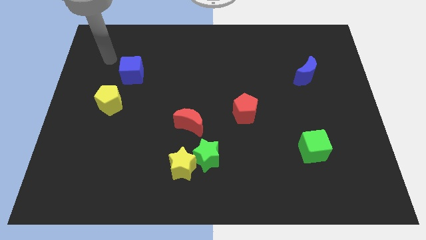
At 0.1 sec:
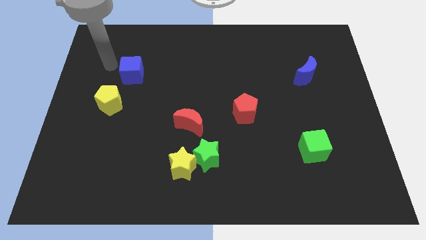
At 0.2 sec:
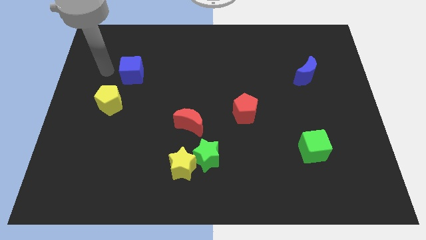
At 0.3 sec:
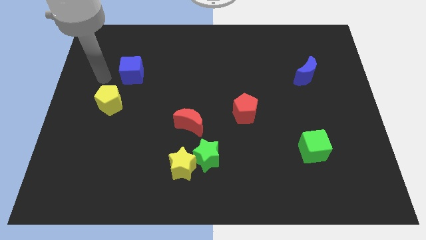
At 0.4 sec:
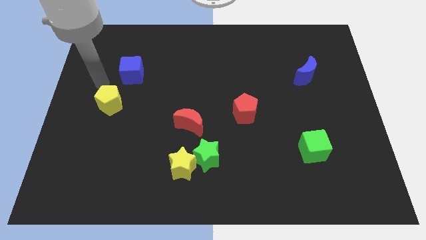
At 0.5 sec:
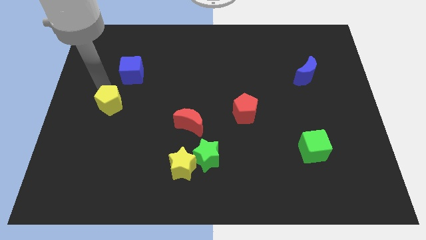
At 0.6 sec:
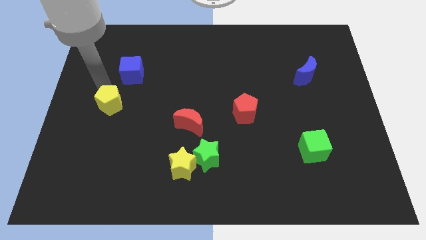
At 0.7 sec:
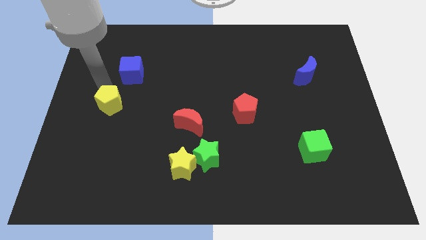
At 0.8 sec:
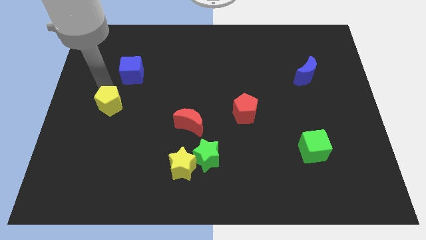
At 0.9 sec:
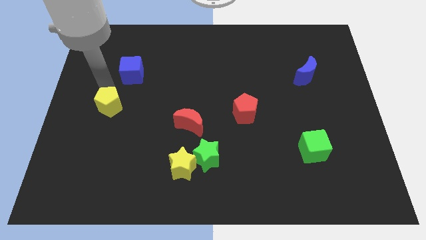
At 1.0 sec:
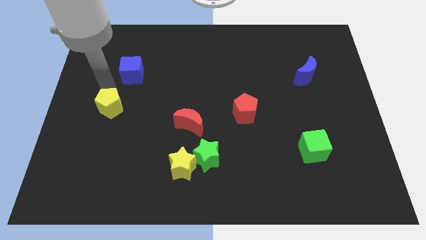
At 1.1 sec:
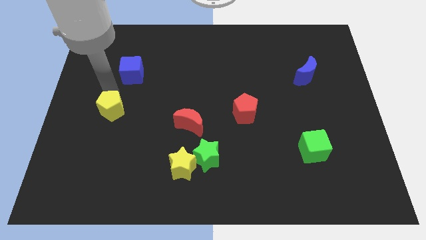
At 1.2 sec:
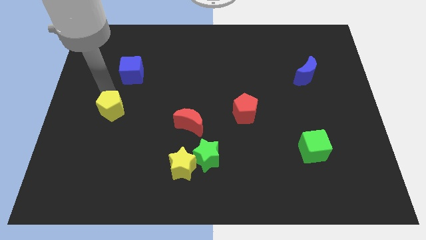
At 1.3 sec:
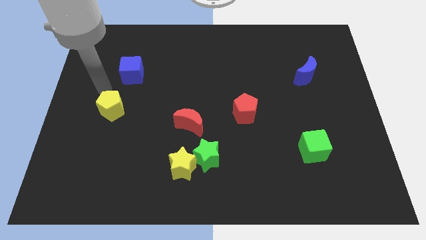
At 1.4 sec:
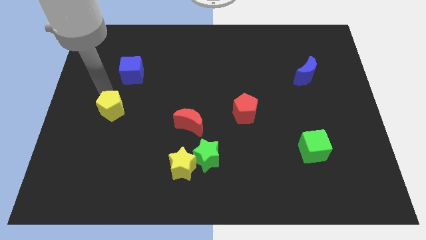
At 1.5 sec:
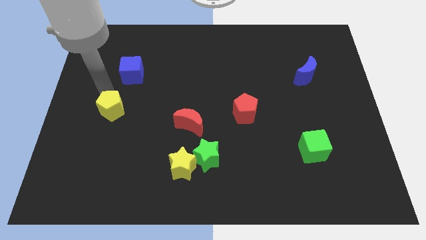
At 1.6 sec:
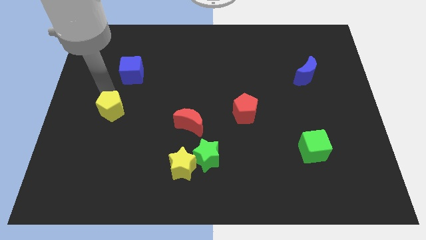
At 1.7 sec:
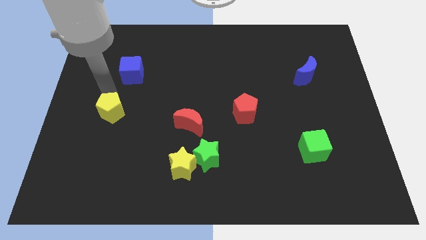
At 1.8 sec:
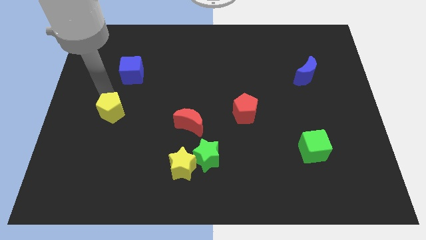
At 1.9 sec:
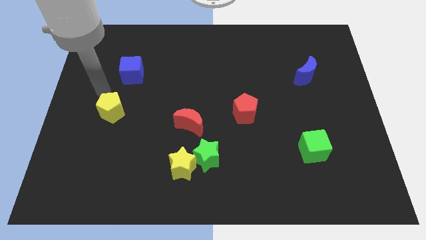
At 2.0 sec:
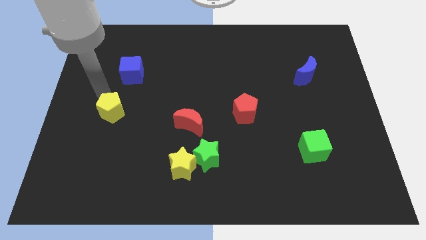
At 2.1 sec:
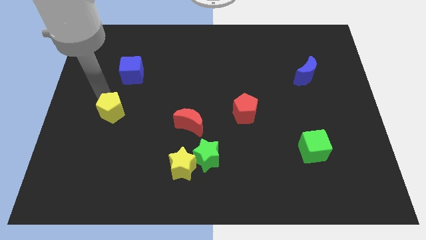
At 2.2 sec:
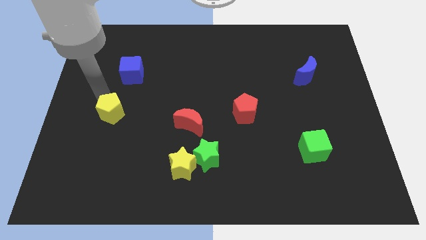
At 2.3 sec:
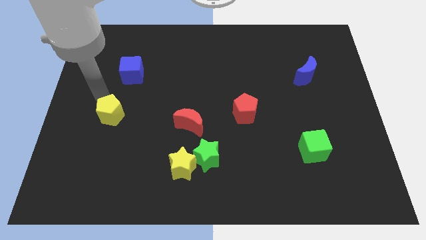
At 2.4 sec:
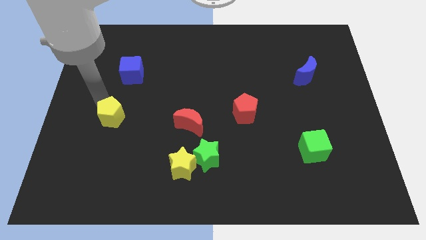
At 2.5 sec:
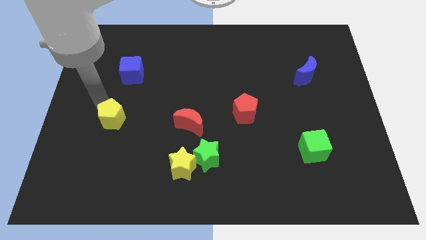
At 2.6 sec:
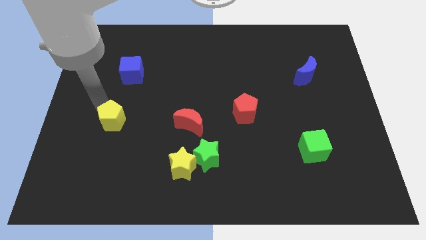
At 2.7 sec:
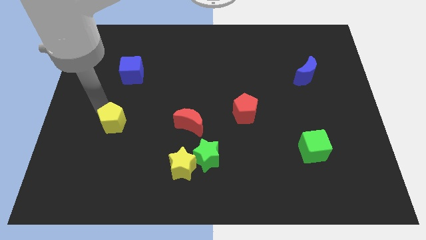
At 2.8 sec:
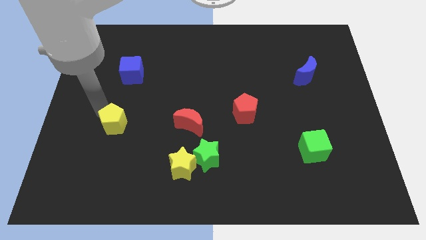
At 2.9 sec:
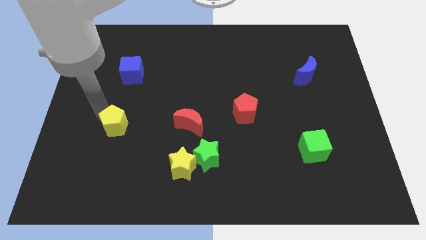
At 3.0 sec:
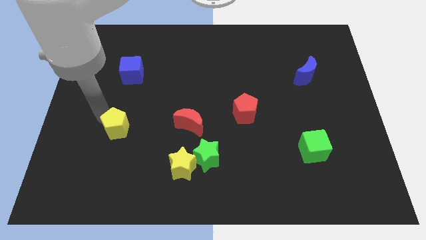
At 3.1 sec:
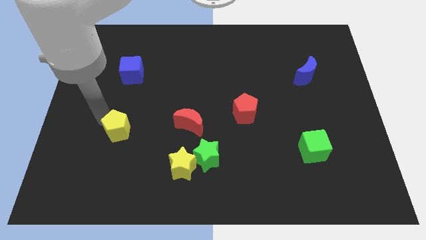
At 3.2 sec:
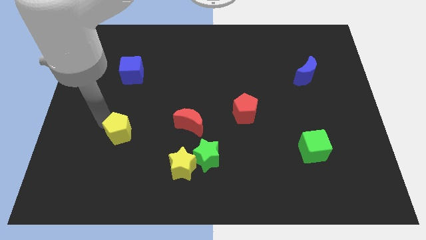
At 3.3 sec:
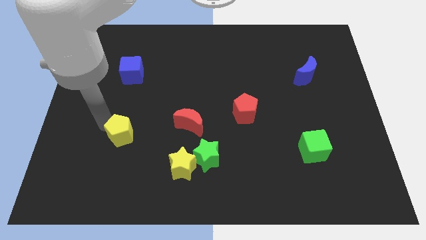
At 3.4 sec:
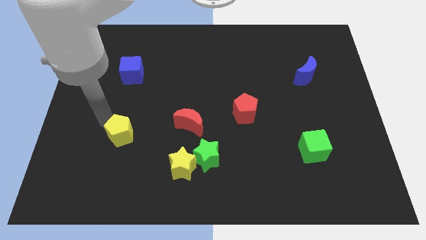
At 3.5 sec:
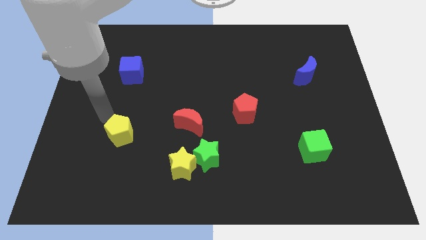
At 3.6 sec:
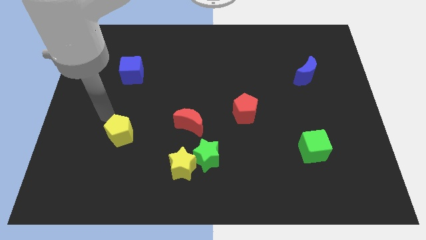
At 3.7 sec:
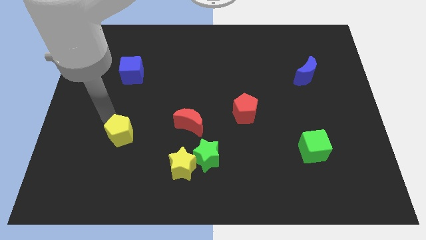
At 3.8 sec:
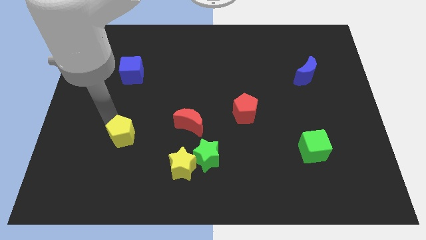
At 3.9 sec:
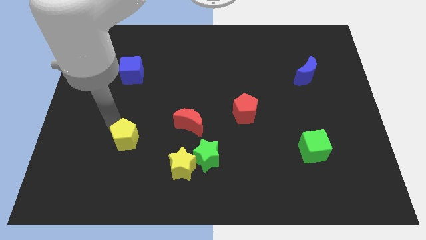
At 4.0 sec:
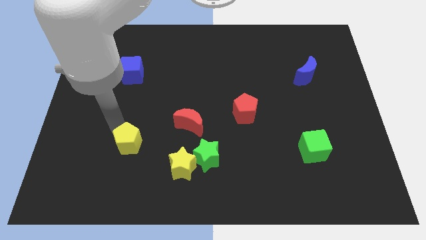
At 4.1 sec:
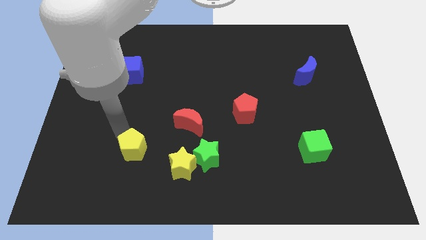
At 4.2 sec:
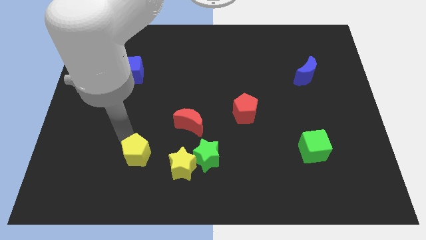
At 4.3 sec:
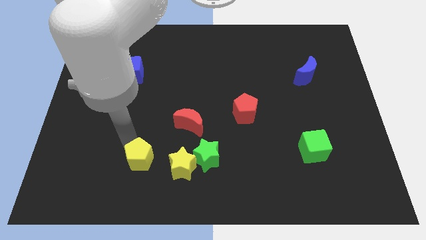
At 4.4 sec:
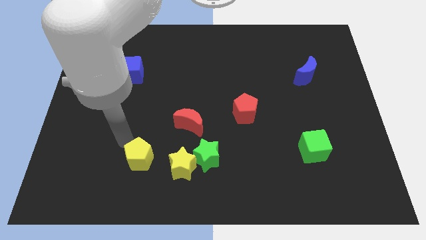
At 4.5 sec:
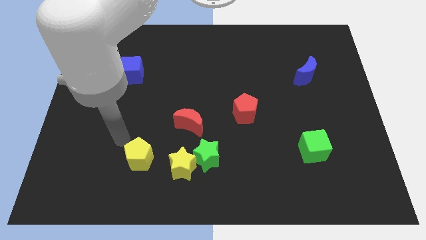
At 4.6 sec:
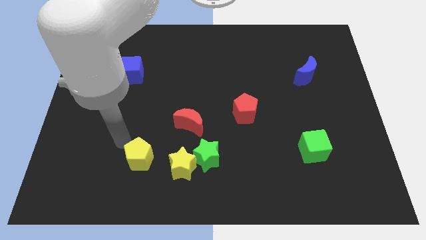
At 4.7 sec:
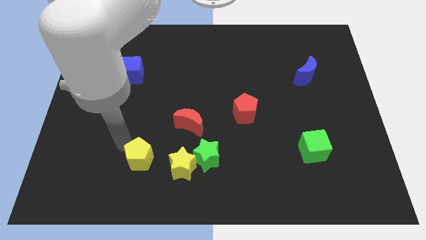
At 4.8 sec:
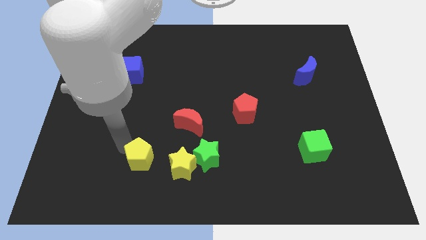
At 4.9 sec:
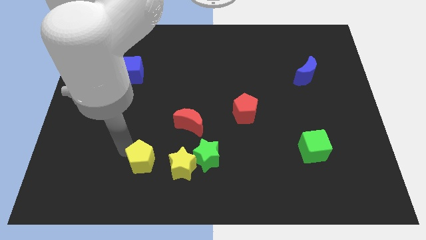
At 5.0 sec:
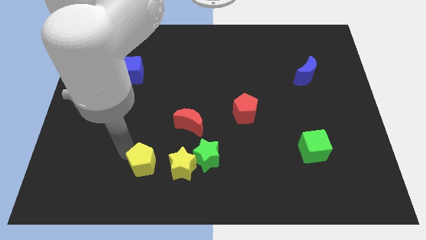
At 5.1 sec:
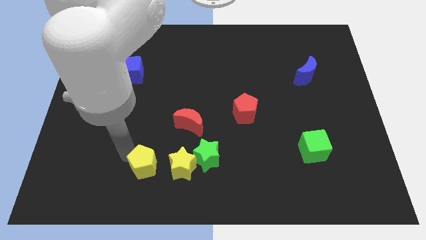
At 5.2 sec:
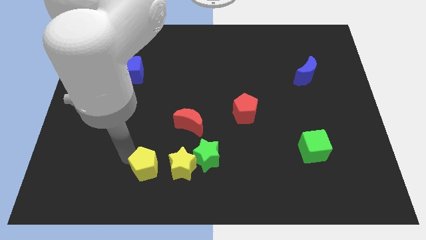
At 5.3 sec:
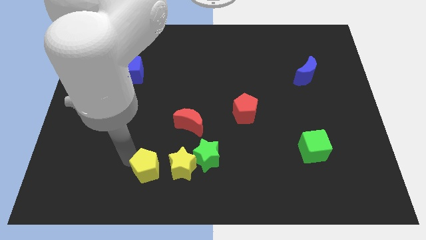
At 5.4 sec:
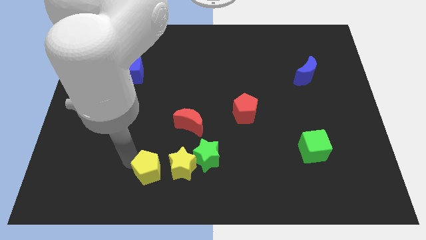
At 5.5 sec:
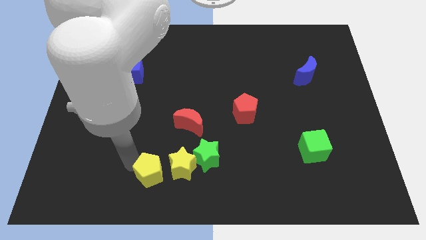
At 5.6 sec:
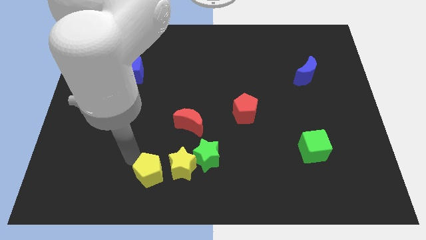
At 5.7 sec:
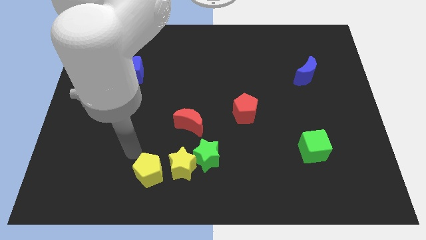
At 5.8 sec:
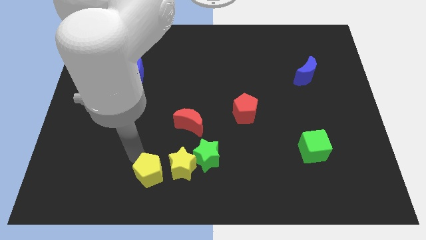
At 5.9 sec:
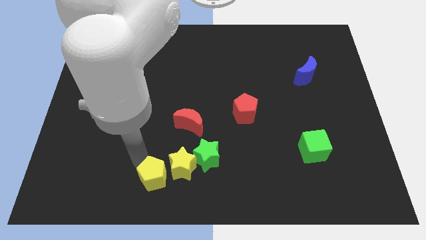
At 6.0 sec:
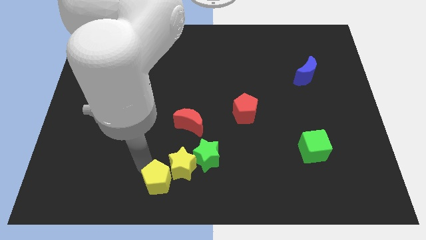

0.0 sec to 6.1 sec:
put the yellow pentagon to the bottom

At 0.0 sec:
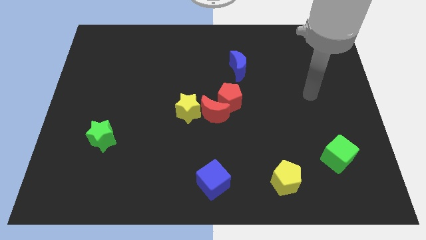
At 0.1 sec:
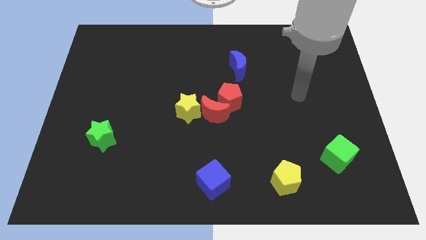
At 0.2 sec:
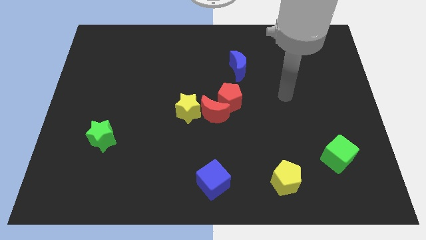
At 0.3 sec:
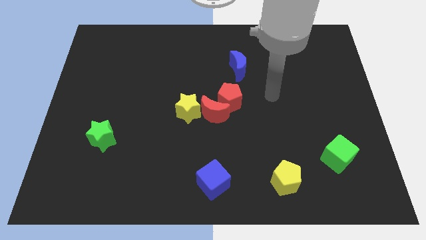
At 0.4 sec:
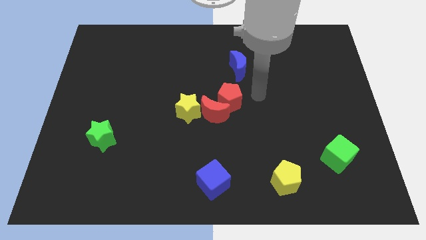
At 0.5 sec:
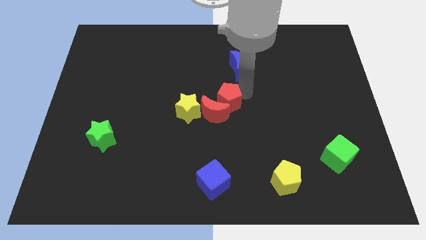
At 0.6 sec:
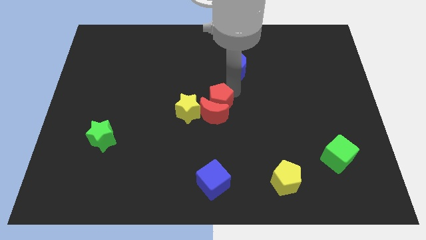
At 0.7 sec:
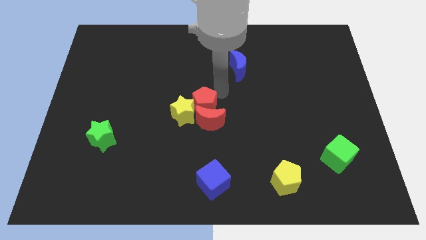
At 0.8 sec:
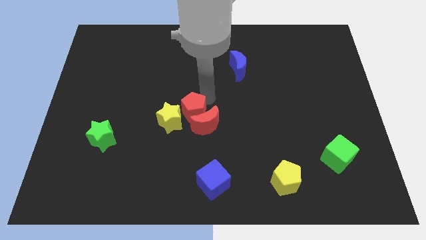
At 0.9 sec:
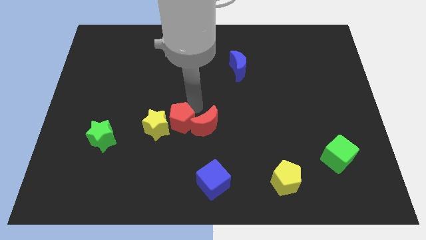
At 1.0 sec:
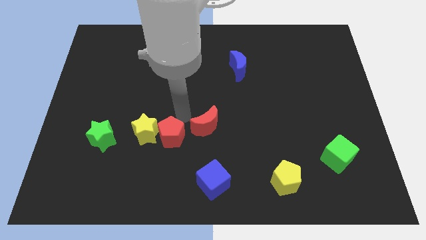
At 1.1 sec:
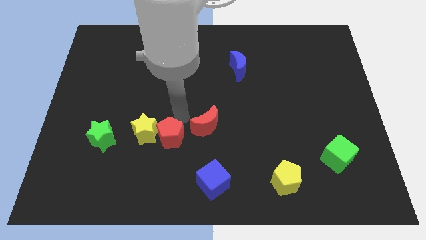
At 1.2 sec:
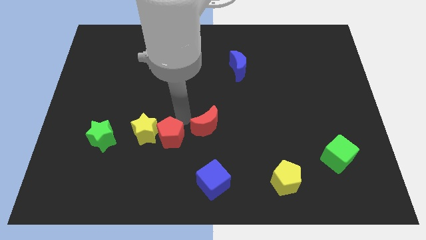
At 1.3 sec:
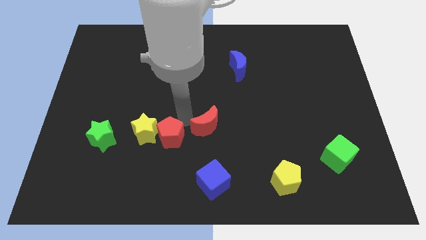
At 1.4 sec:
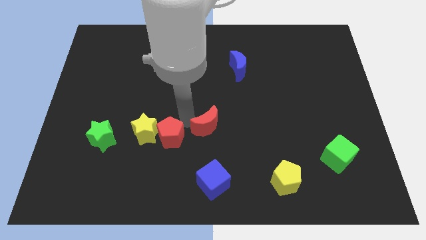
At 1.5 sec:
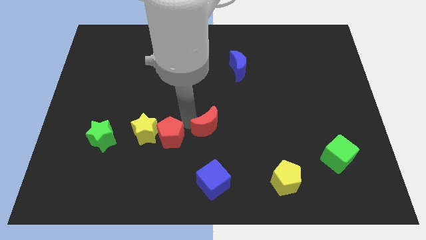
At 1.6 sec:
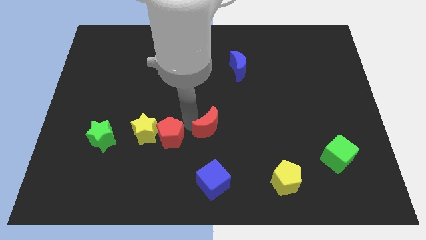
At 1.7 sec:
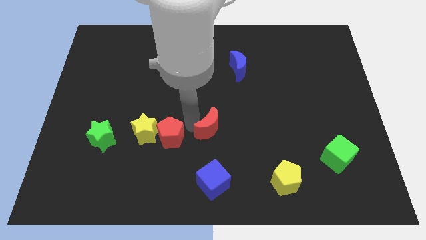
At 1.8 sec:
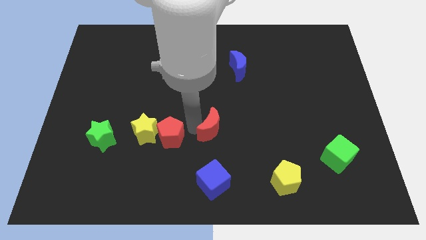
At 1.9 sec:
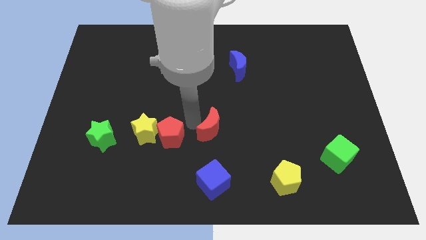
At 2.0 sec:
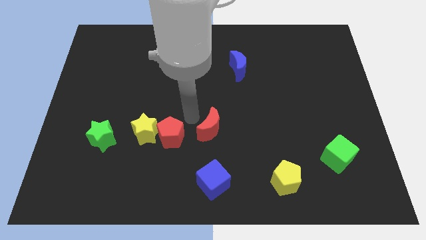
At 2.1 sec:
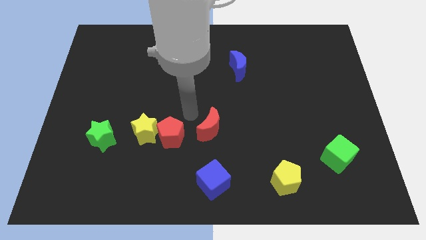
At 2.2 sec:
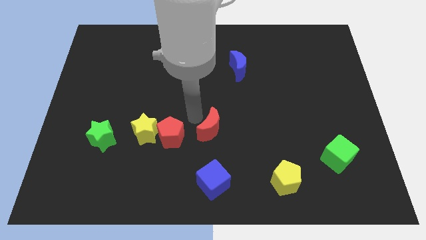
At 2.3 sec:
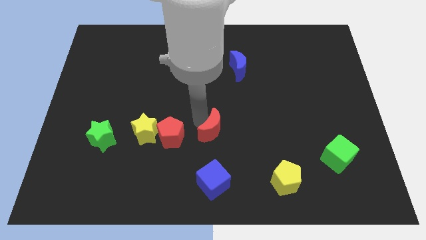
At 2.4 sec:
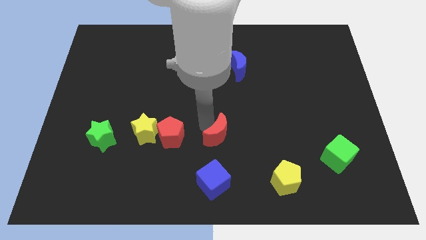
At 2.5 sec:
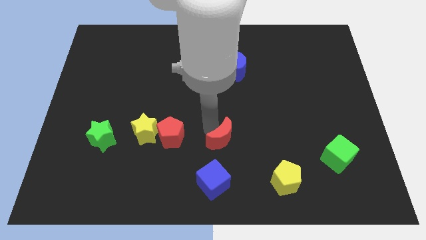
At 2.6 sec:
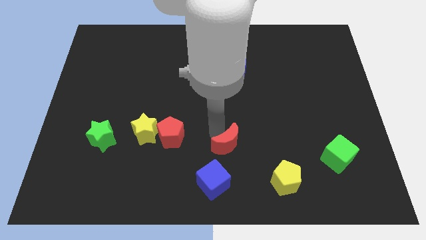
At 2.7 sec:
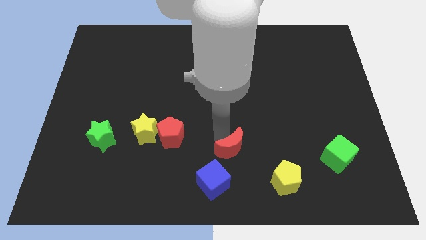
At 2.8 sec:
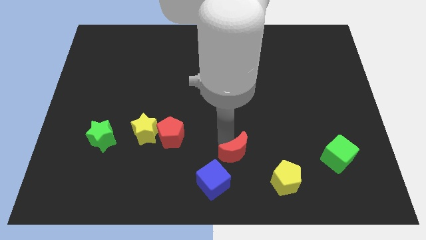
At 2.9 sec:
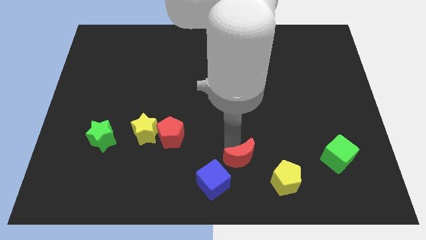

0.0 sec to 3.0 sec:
push the red moon to the bottom side
